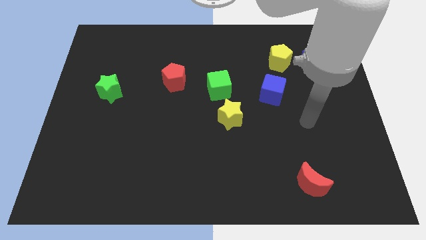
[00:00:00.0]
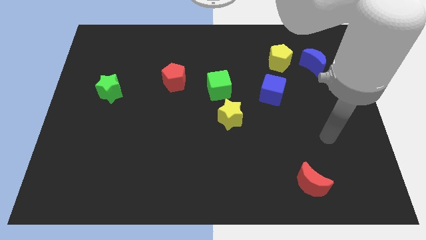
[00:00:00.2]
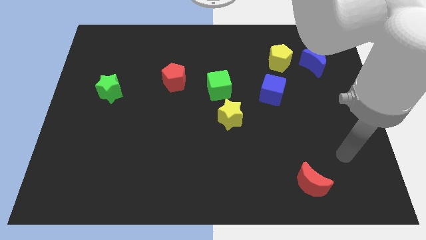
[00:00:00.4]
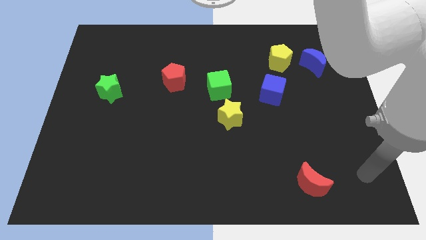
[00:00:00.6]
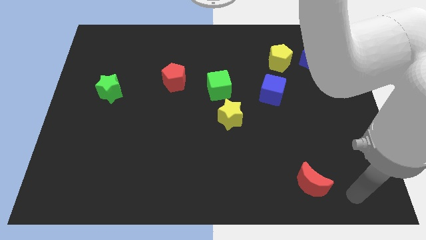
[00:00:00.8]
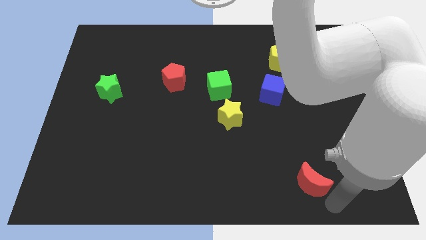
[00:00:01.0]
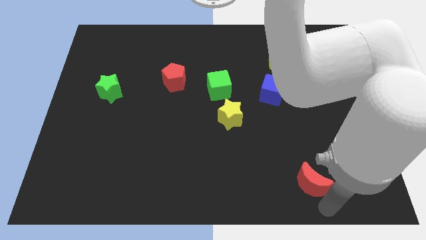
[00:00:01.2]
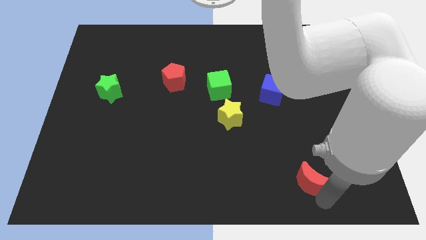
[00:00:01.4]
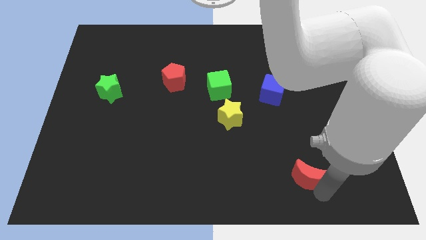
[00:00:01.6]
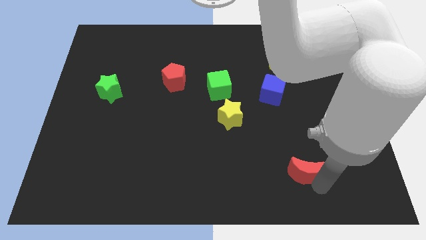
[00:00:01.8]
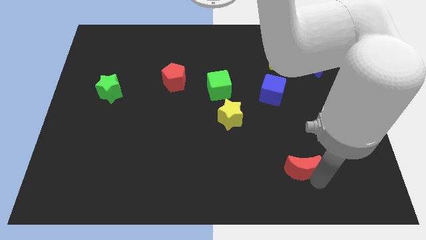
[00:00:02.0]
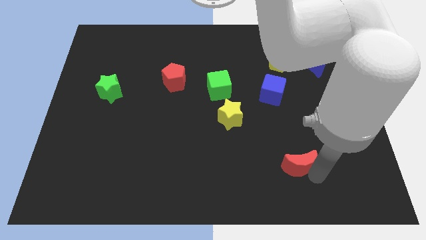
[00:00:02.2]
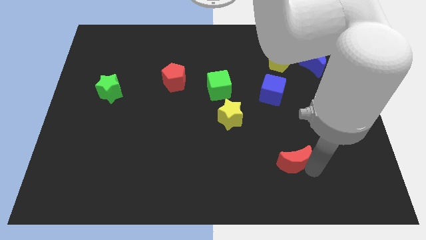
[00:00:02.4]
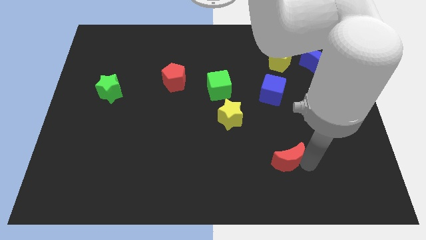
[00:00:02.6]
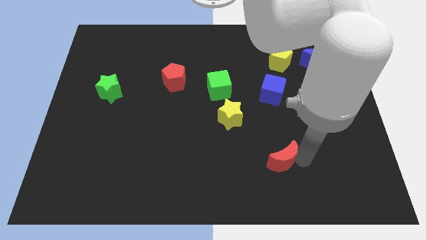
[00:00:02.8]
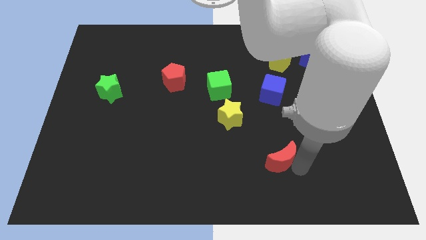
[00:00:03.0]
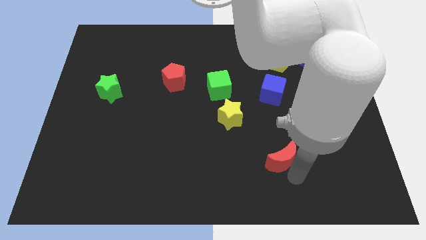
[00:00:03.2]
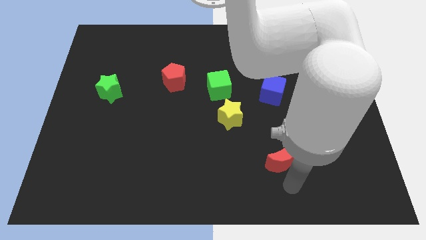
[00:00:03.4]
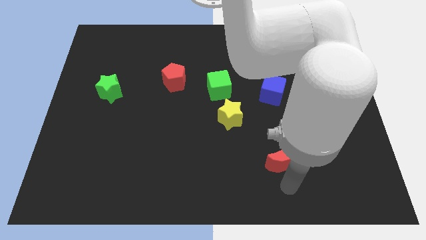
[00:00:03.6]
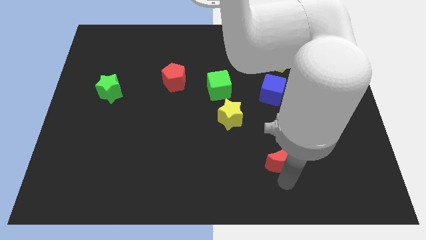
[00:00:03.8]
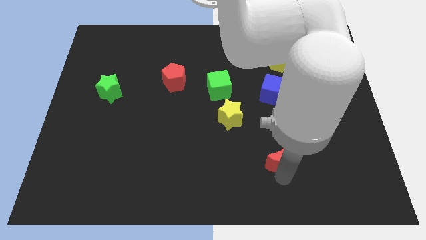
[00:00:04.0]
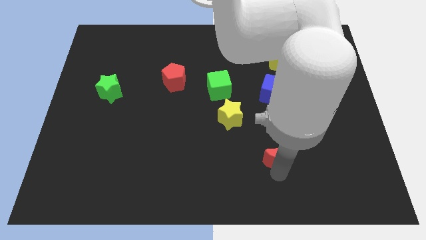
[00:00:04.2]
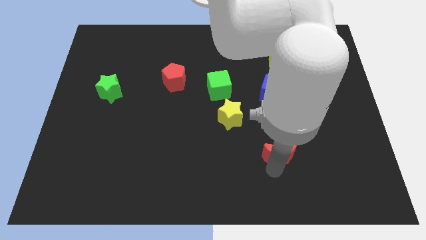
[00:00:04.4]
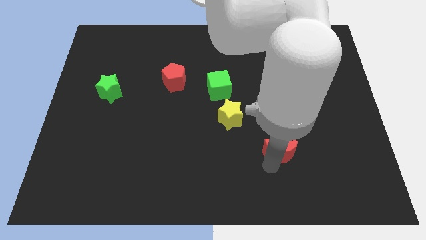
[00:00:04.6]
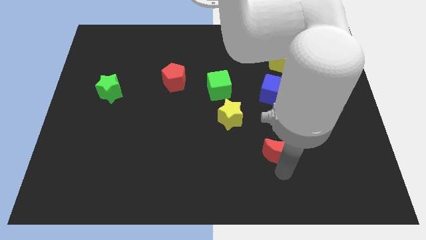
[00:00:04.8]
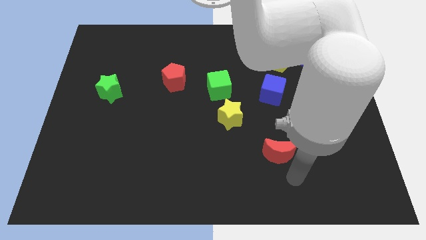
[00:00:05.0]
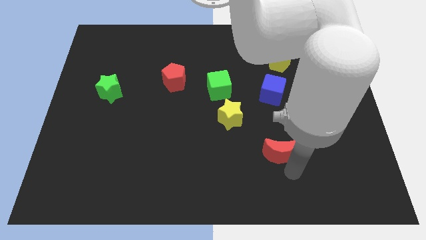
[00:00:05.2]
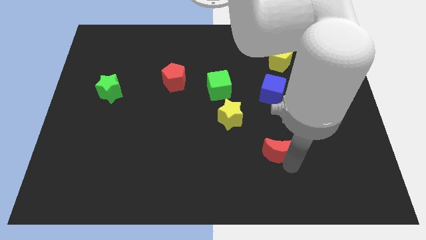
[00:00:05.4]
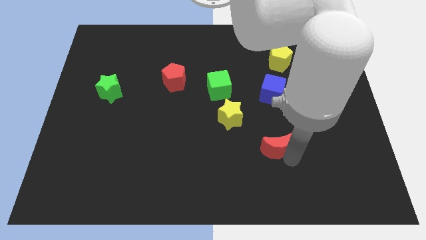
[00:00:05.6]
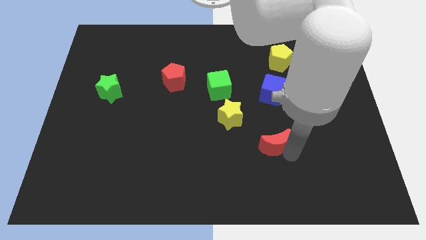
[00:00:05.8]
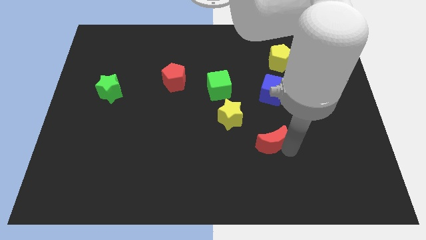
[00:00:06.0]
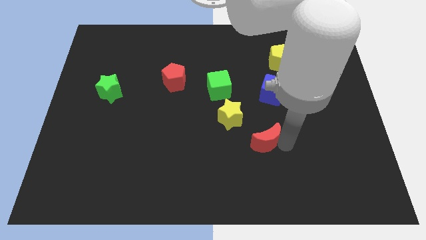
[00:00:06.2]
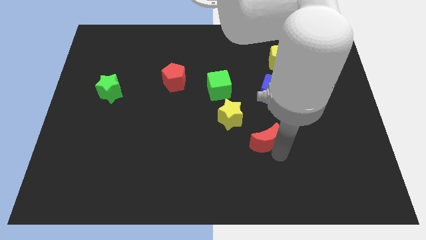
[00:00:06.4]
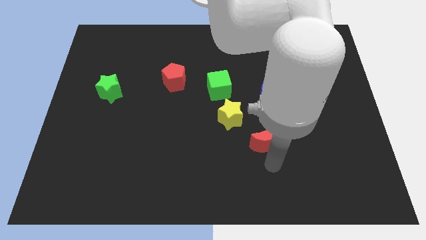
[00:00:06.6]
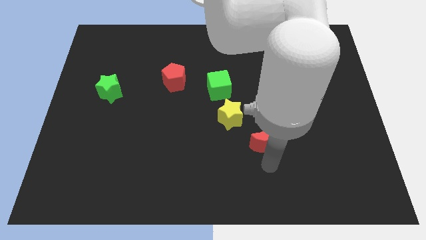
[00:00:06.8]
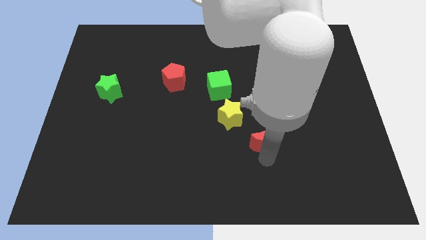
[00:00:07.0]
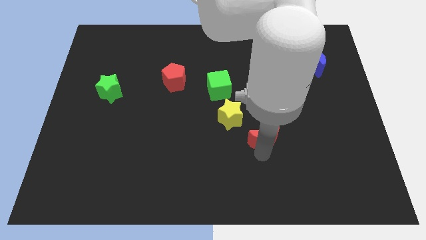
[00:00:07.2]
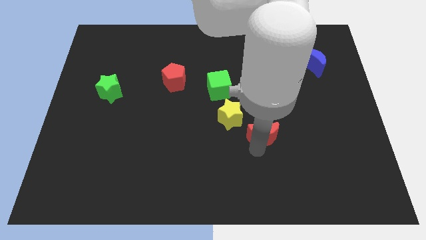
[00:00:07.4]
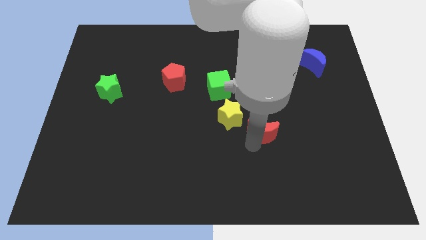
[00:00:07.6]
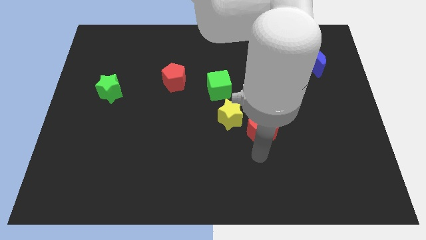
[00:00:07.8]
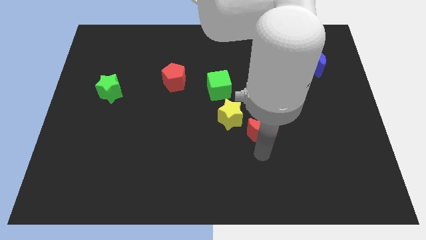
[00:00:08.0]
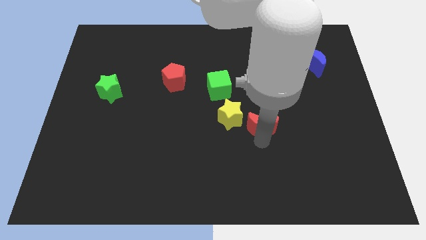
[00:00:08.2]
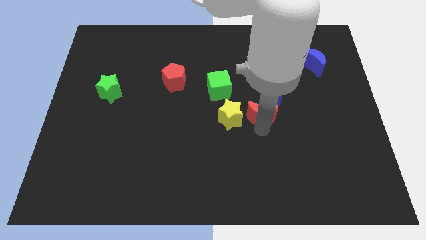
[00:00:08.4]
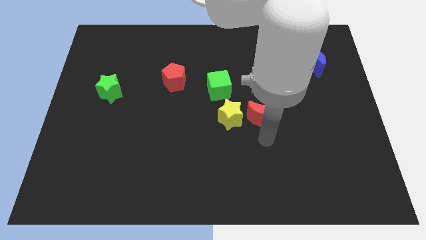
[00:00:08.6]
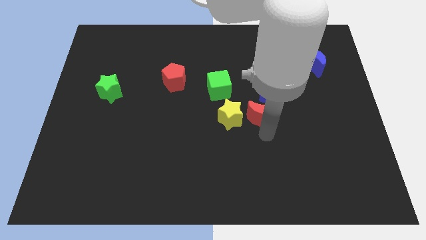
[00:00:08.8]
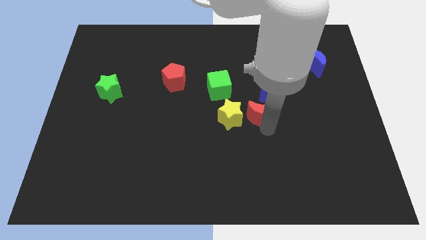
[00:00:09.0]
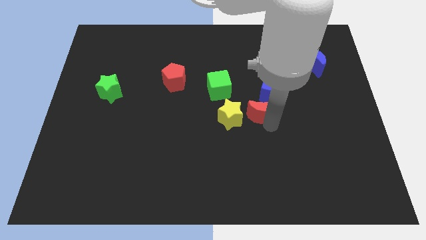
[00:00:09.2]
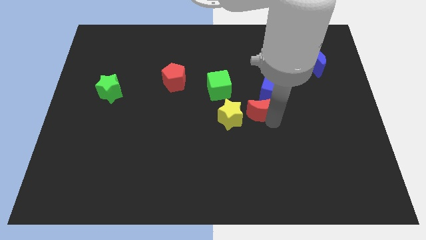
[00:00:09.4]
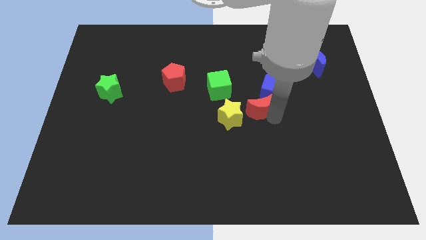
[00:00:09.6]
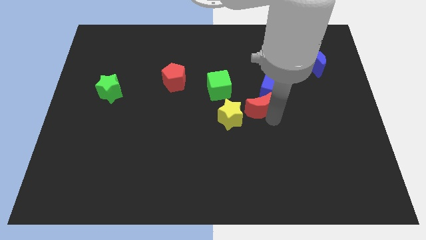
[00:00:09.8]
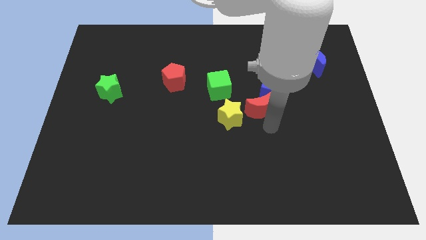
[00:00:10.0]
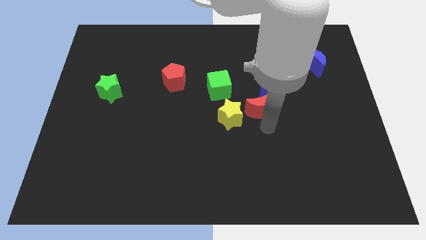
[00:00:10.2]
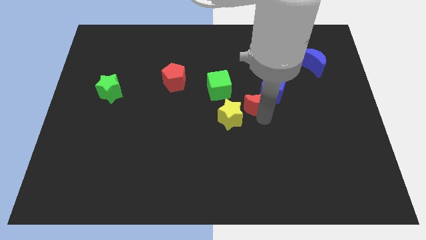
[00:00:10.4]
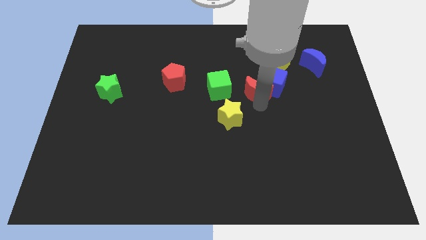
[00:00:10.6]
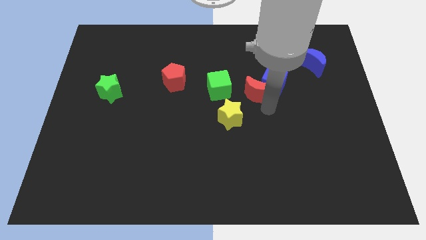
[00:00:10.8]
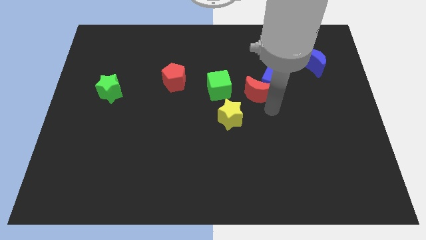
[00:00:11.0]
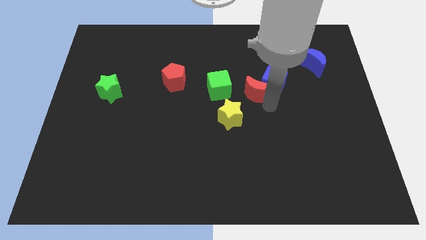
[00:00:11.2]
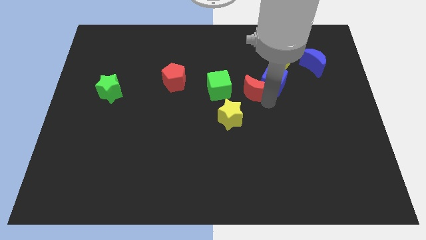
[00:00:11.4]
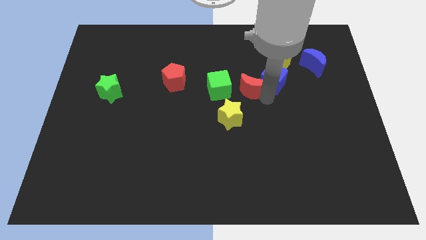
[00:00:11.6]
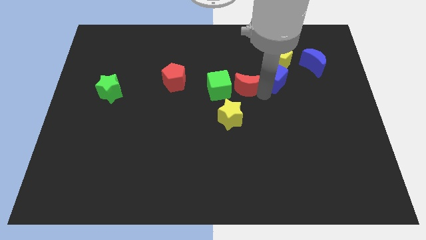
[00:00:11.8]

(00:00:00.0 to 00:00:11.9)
put the red moon to the top right of the green cube

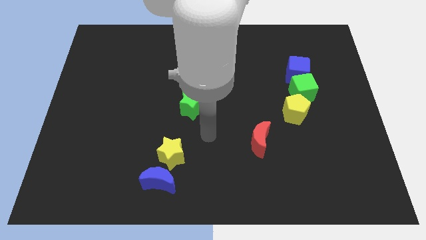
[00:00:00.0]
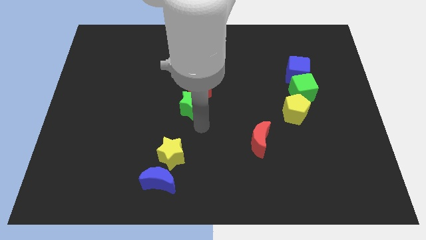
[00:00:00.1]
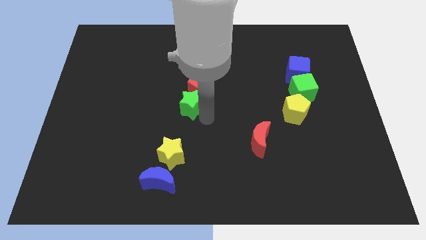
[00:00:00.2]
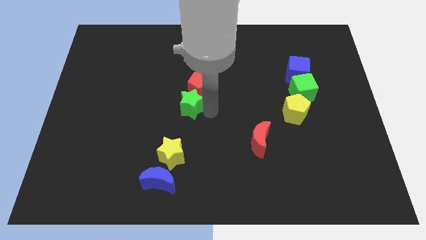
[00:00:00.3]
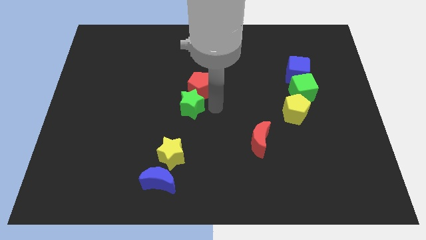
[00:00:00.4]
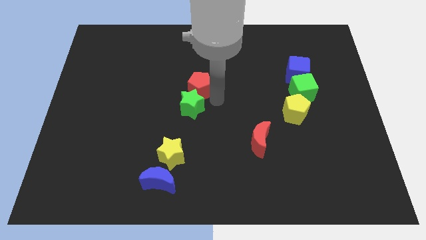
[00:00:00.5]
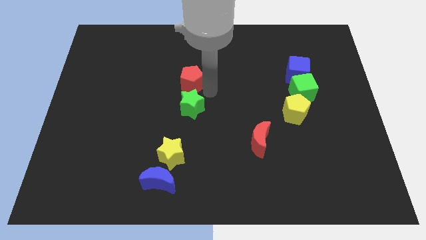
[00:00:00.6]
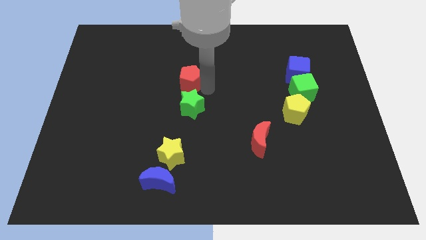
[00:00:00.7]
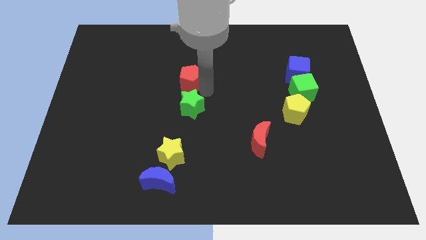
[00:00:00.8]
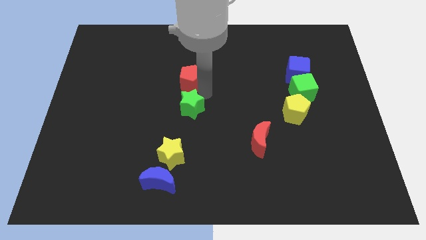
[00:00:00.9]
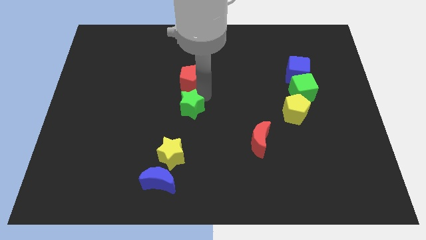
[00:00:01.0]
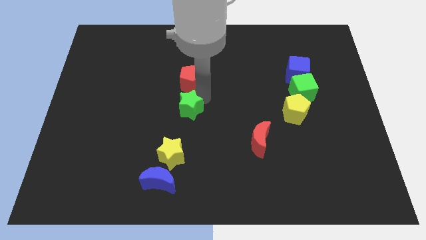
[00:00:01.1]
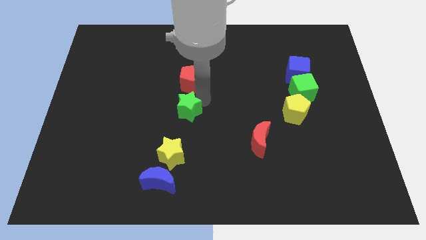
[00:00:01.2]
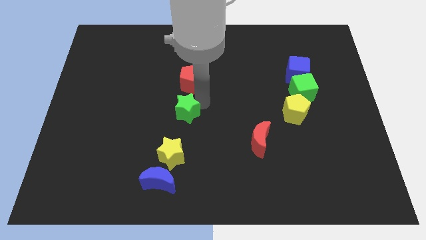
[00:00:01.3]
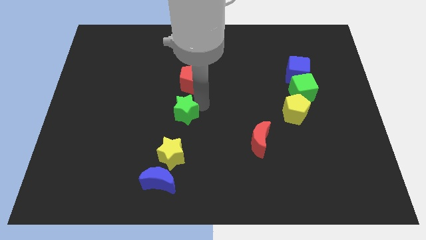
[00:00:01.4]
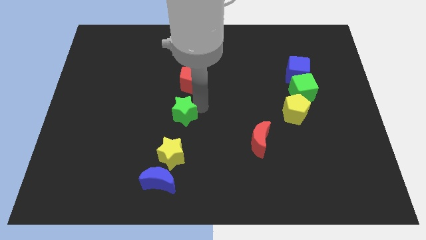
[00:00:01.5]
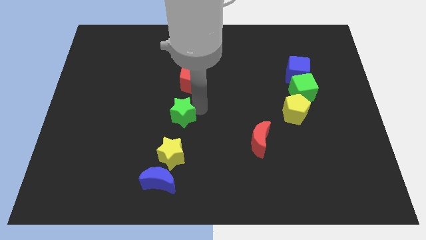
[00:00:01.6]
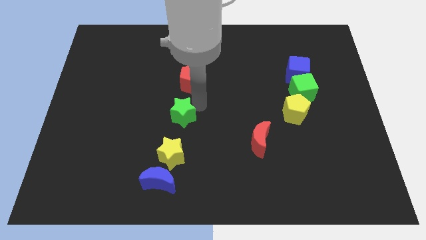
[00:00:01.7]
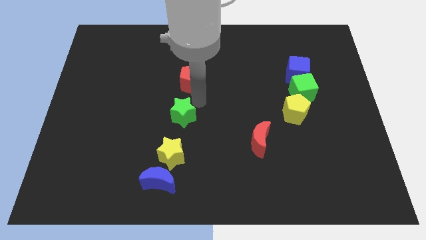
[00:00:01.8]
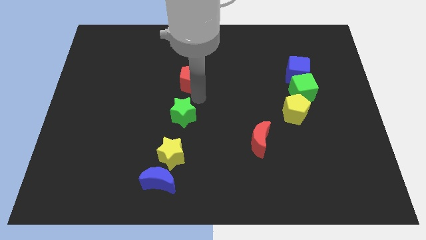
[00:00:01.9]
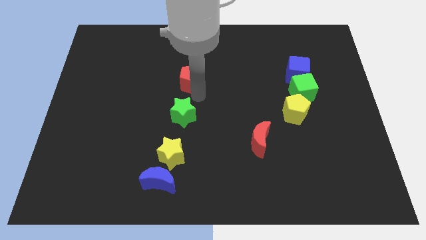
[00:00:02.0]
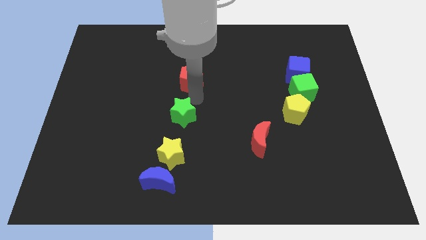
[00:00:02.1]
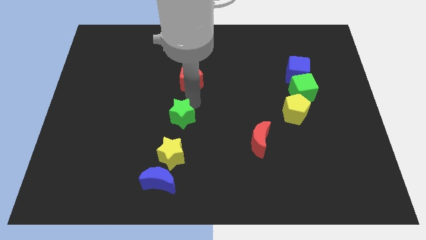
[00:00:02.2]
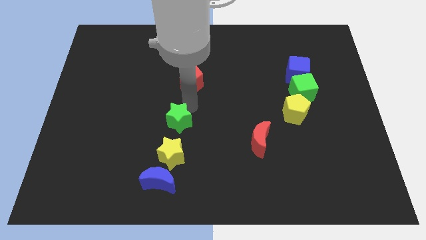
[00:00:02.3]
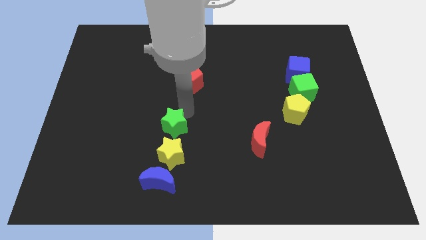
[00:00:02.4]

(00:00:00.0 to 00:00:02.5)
slide the green star above the blue moon
